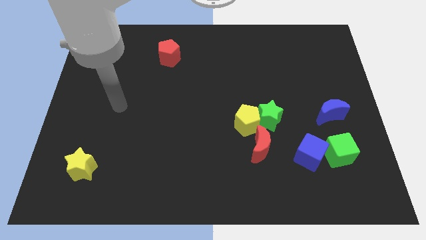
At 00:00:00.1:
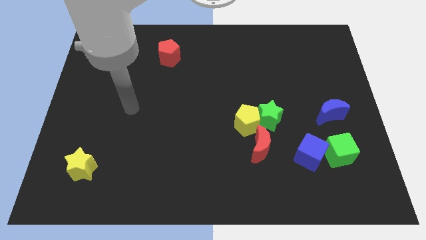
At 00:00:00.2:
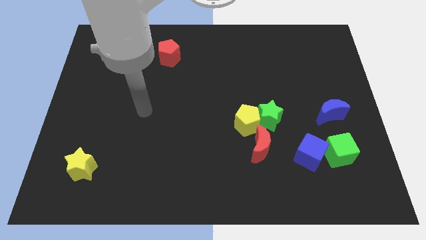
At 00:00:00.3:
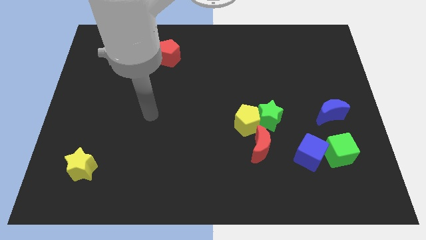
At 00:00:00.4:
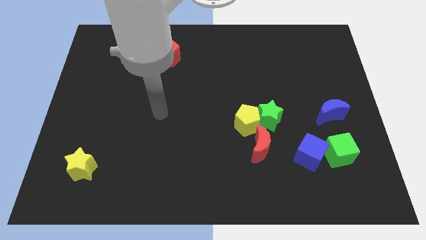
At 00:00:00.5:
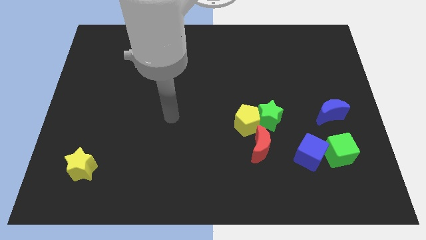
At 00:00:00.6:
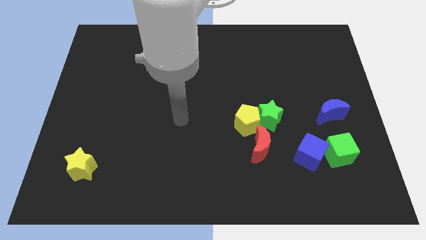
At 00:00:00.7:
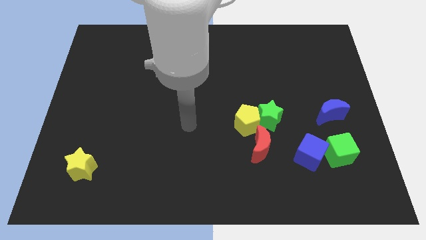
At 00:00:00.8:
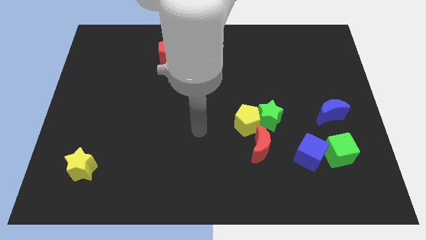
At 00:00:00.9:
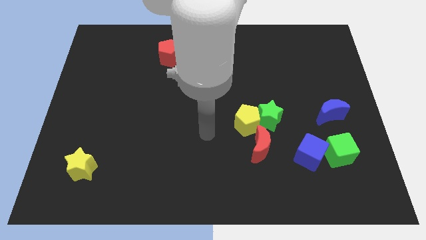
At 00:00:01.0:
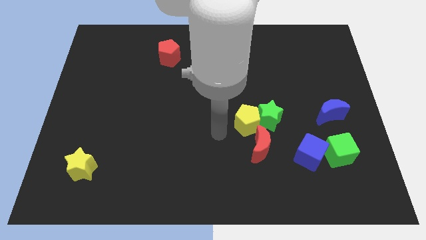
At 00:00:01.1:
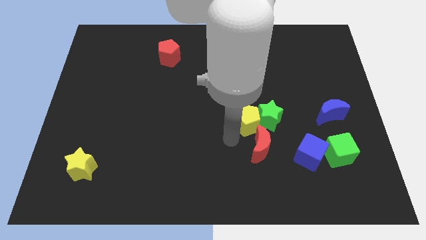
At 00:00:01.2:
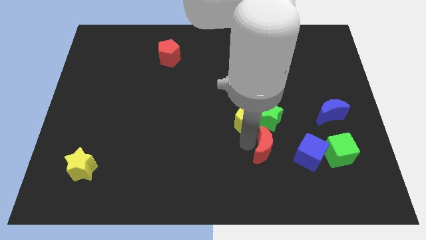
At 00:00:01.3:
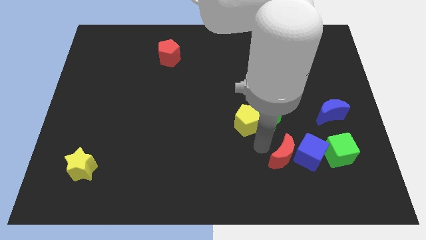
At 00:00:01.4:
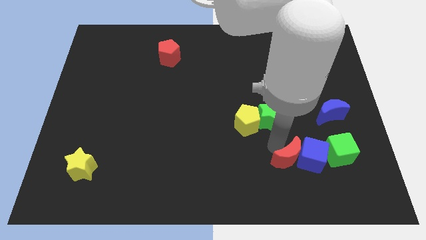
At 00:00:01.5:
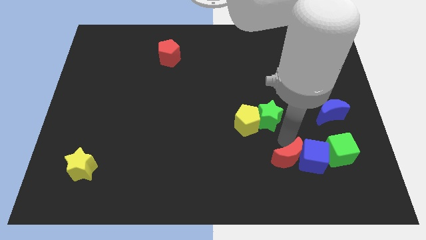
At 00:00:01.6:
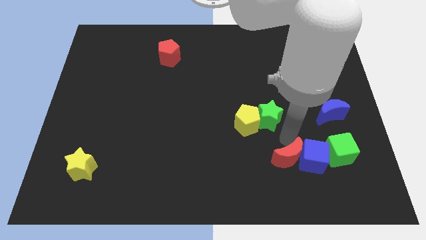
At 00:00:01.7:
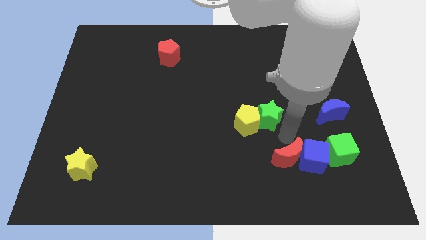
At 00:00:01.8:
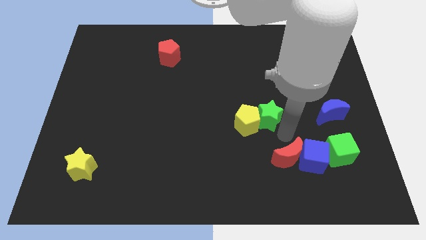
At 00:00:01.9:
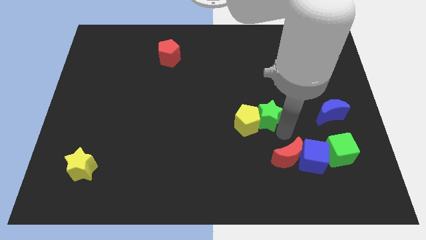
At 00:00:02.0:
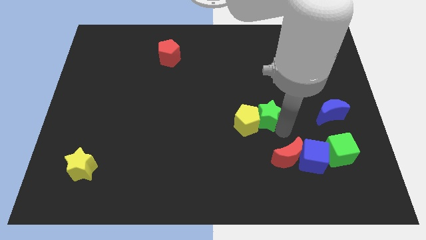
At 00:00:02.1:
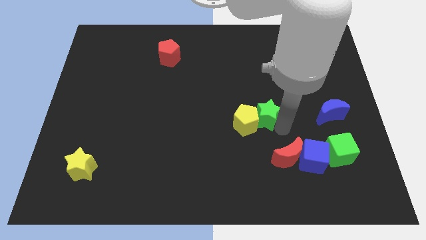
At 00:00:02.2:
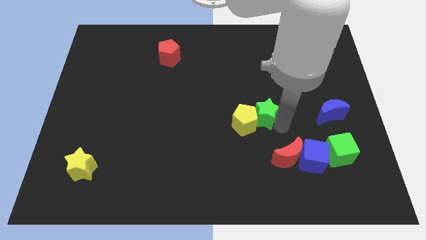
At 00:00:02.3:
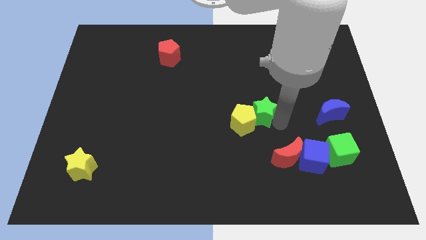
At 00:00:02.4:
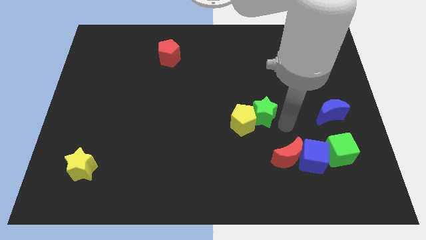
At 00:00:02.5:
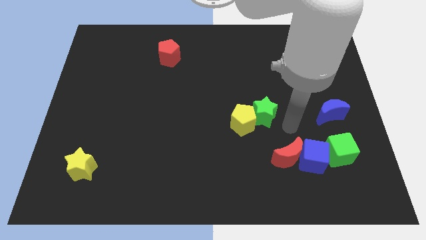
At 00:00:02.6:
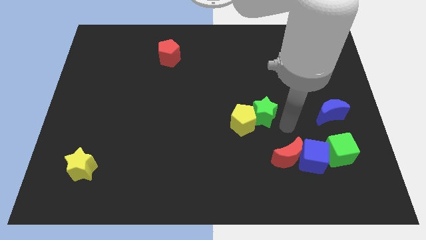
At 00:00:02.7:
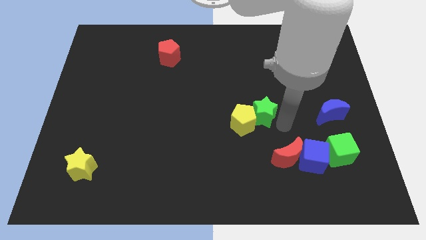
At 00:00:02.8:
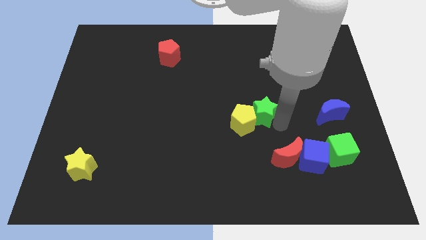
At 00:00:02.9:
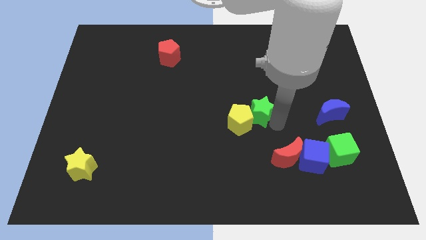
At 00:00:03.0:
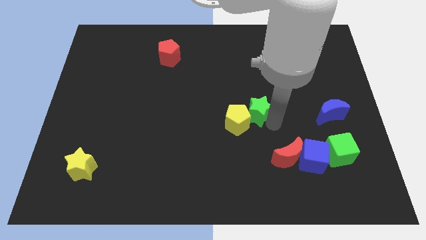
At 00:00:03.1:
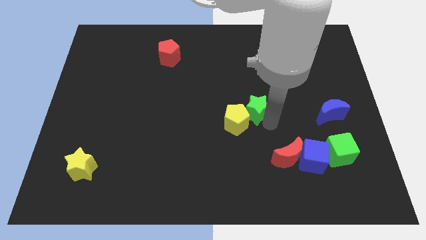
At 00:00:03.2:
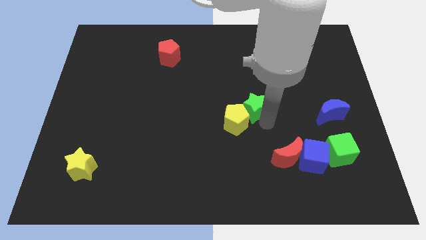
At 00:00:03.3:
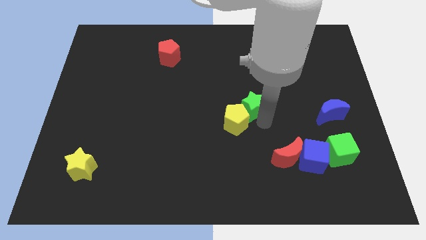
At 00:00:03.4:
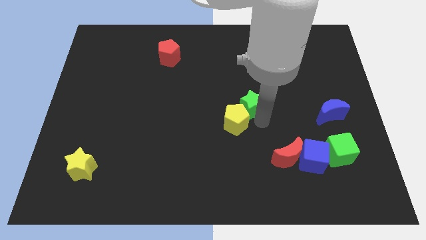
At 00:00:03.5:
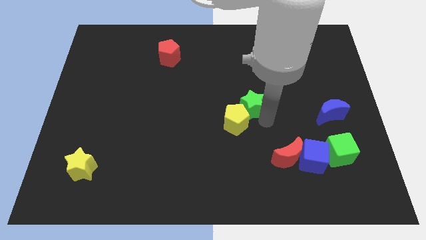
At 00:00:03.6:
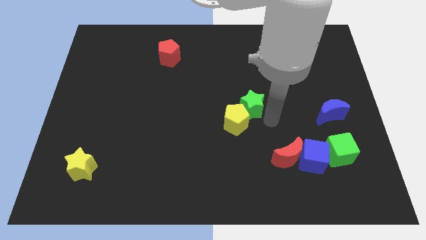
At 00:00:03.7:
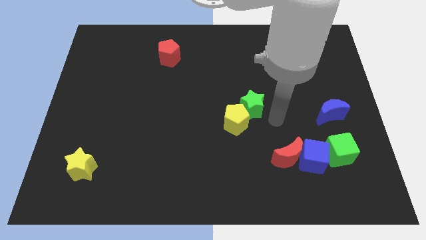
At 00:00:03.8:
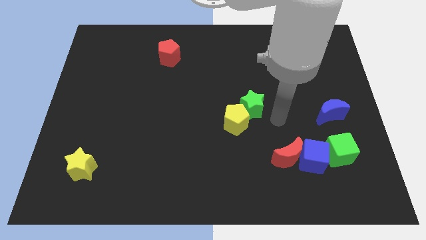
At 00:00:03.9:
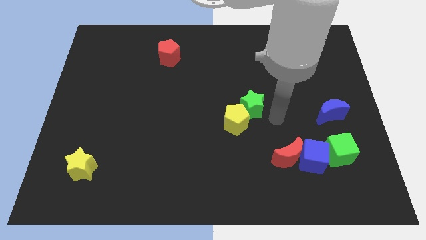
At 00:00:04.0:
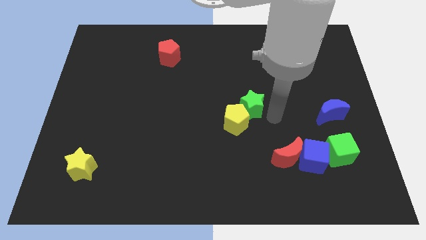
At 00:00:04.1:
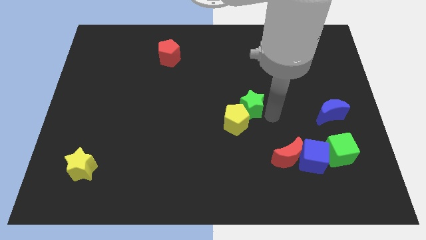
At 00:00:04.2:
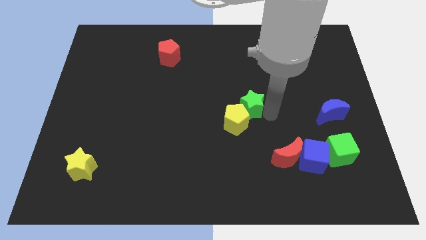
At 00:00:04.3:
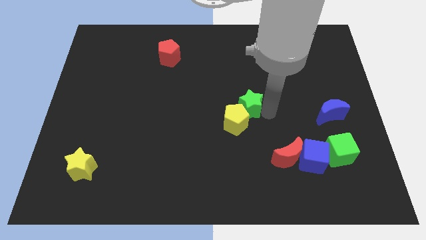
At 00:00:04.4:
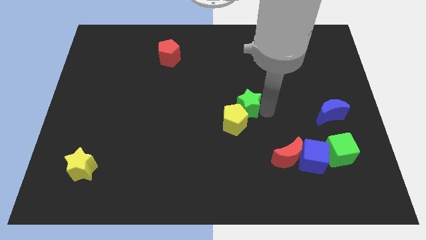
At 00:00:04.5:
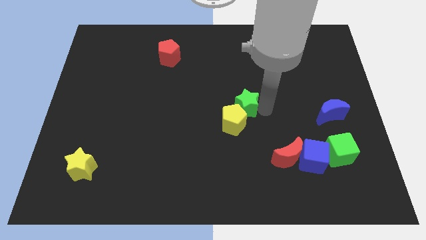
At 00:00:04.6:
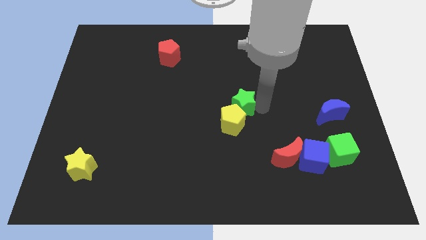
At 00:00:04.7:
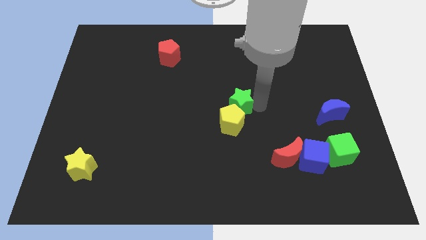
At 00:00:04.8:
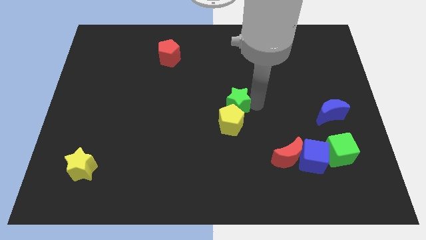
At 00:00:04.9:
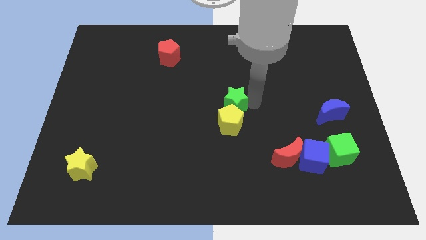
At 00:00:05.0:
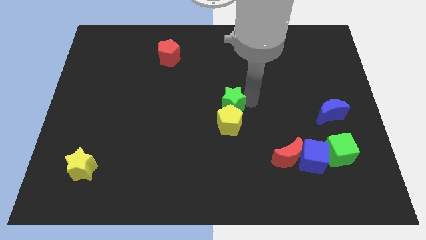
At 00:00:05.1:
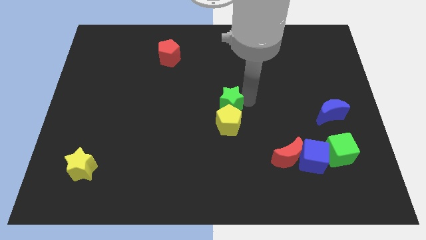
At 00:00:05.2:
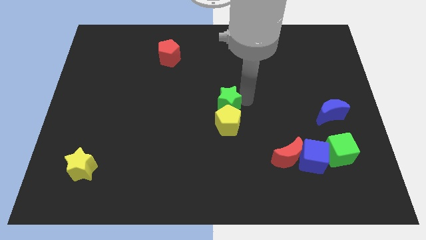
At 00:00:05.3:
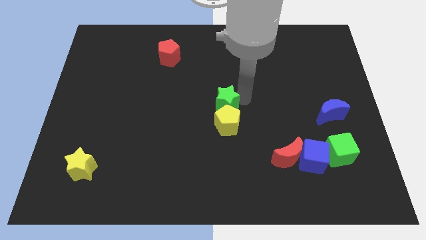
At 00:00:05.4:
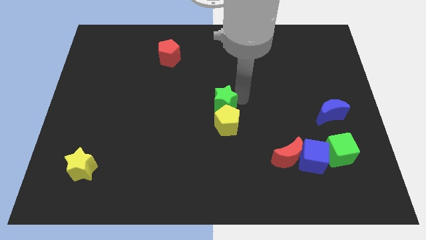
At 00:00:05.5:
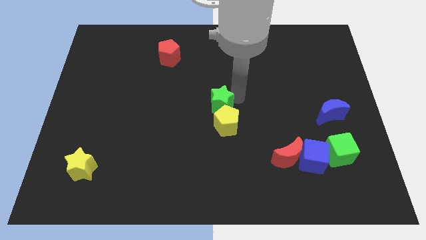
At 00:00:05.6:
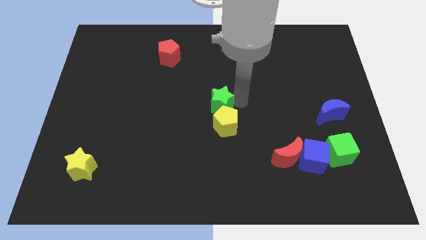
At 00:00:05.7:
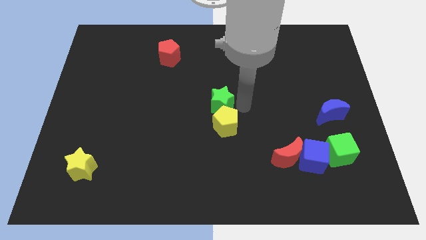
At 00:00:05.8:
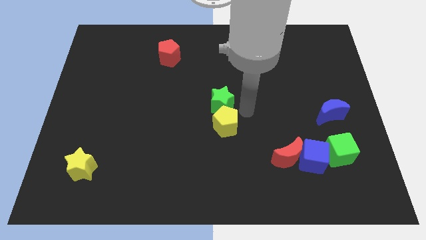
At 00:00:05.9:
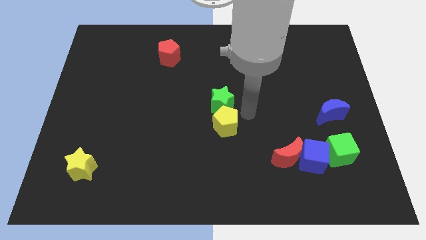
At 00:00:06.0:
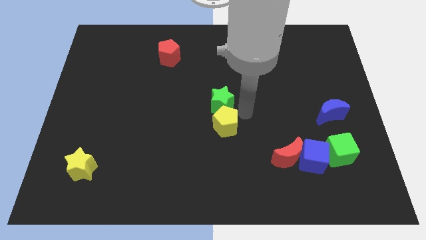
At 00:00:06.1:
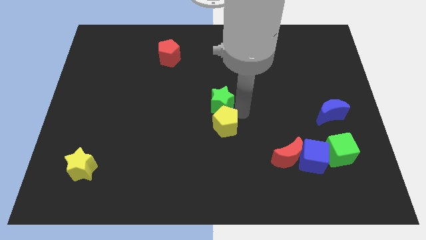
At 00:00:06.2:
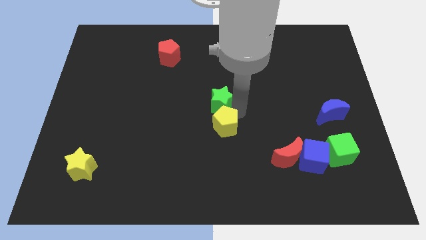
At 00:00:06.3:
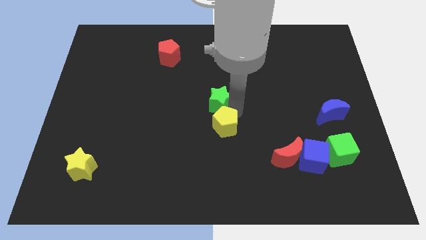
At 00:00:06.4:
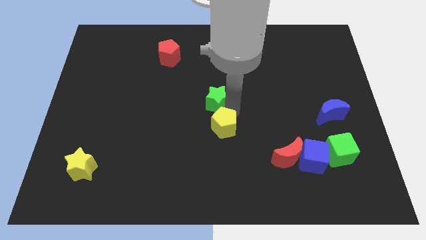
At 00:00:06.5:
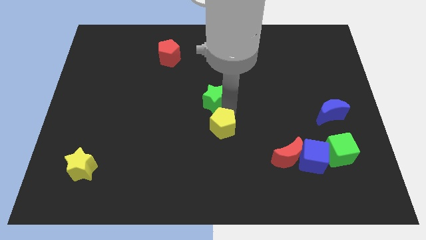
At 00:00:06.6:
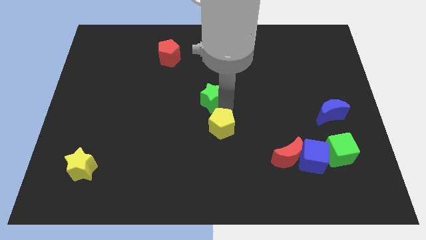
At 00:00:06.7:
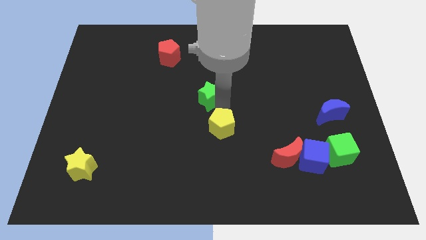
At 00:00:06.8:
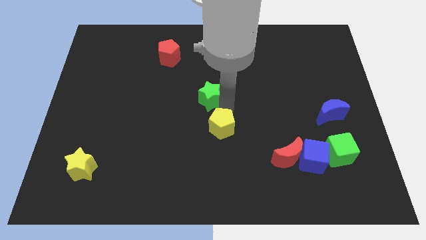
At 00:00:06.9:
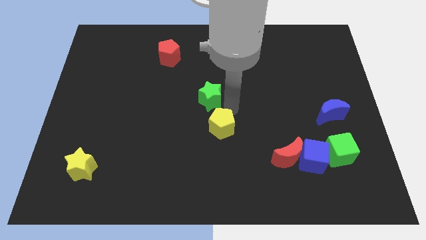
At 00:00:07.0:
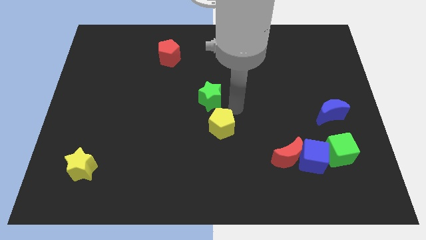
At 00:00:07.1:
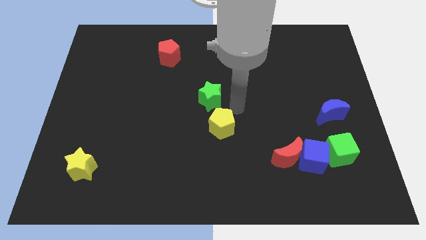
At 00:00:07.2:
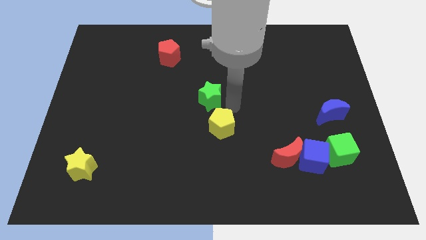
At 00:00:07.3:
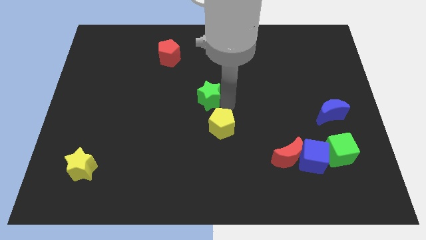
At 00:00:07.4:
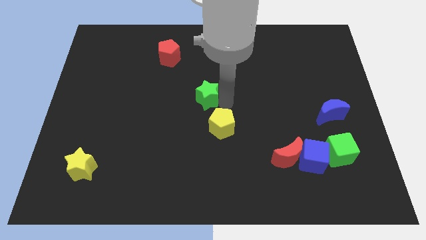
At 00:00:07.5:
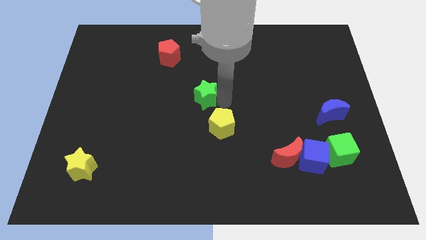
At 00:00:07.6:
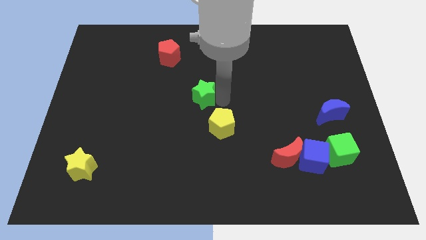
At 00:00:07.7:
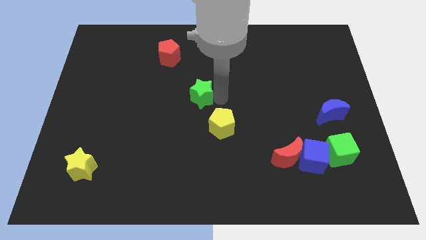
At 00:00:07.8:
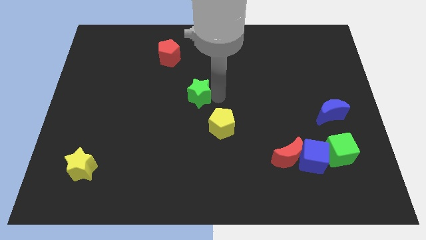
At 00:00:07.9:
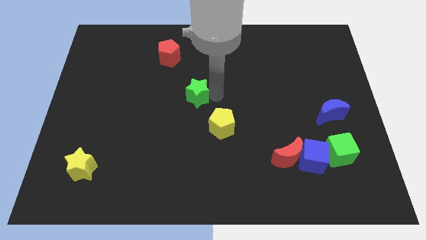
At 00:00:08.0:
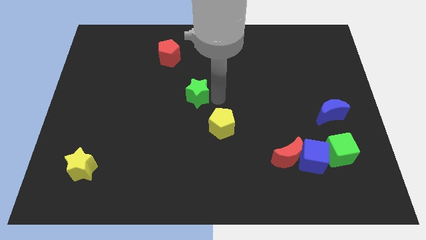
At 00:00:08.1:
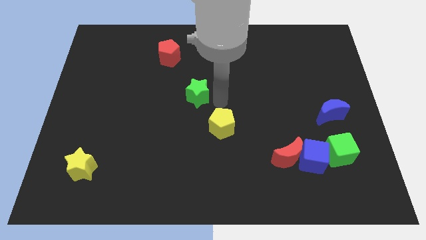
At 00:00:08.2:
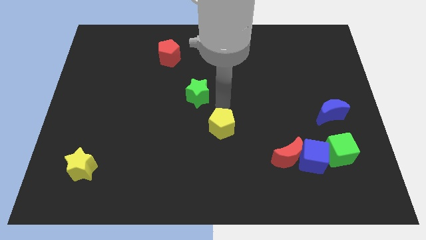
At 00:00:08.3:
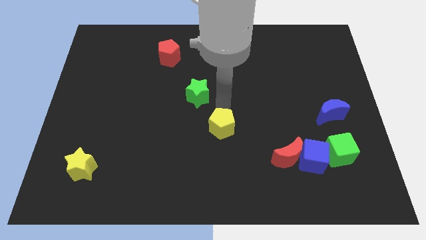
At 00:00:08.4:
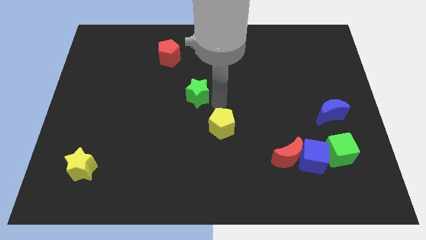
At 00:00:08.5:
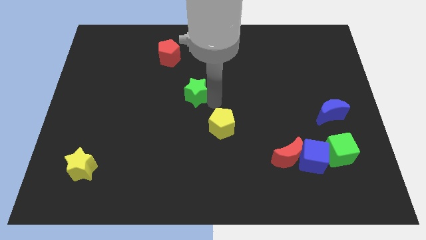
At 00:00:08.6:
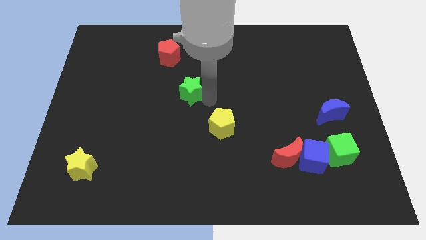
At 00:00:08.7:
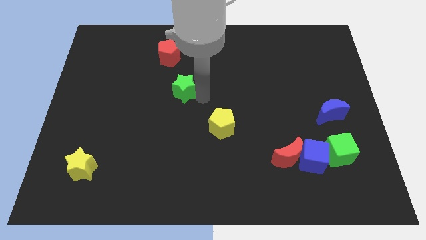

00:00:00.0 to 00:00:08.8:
put the green star below the red pentagon
